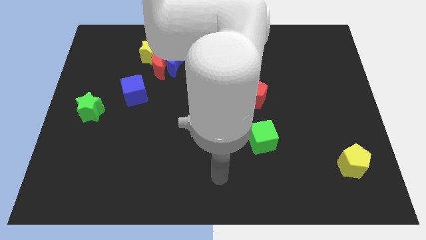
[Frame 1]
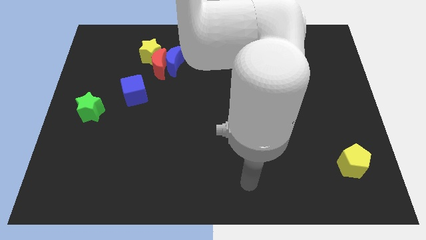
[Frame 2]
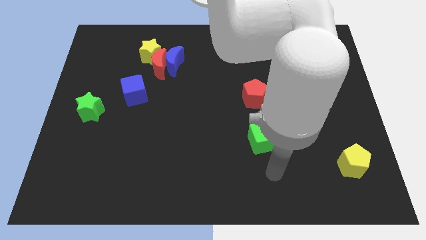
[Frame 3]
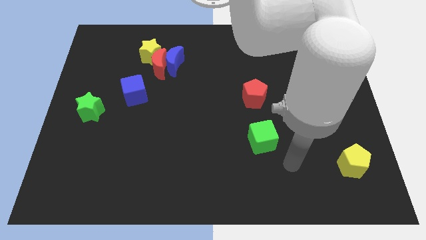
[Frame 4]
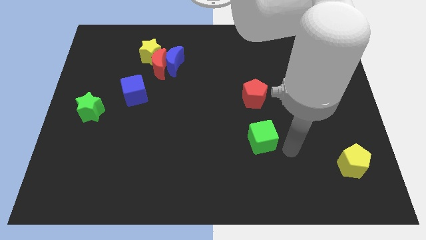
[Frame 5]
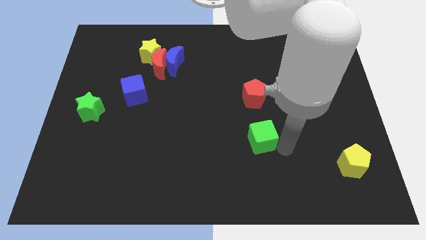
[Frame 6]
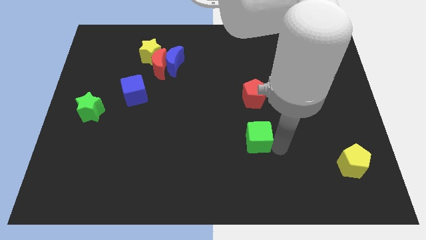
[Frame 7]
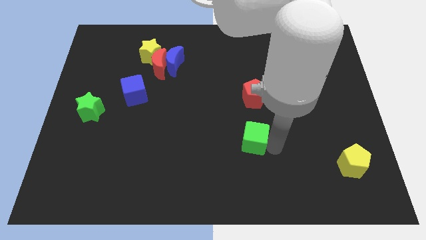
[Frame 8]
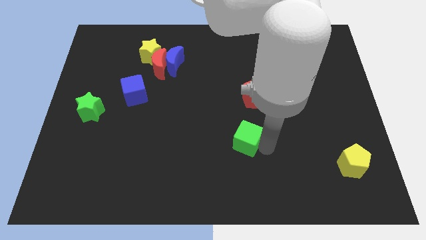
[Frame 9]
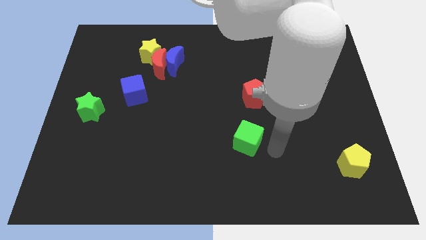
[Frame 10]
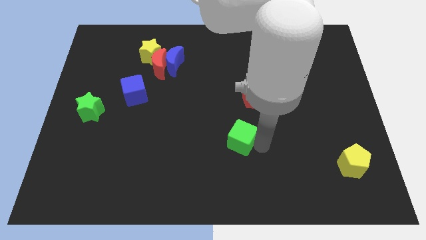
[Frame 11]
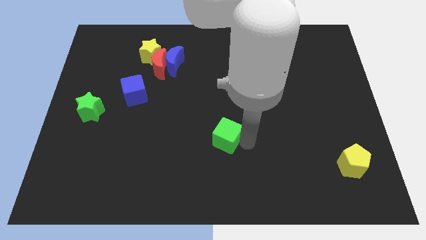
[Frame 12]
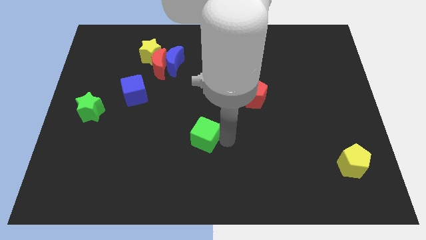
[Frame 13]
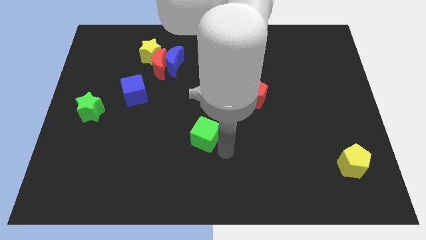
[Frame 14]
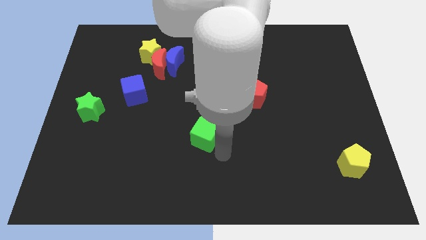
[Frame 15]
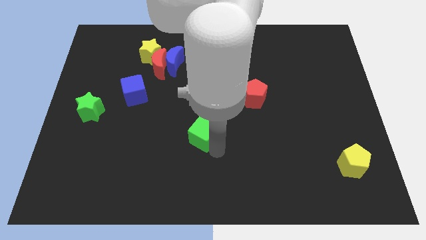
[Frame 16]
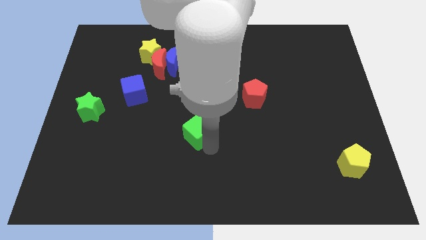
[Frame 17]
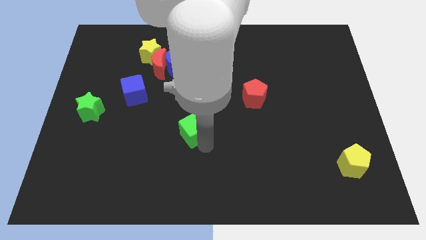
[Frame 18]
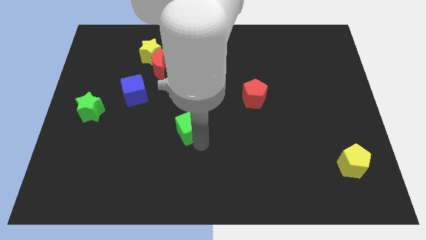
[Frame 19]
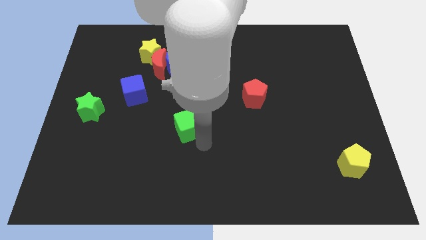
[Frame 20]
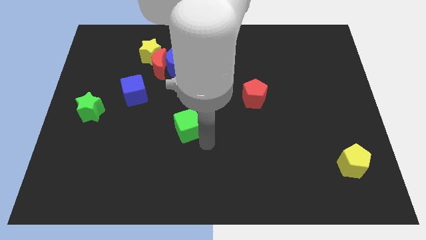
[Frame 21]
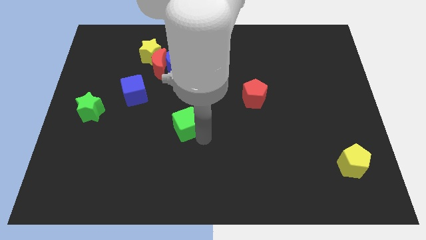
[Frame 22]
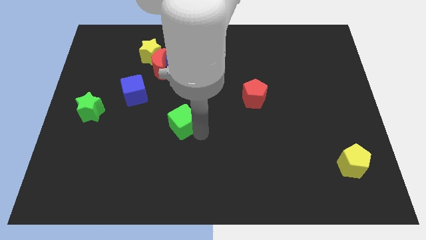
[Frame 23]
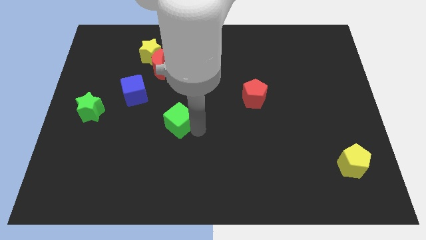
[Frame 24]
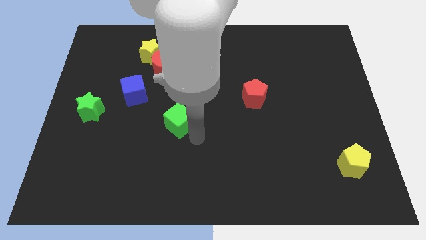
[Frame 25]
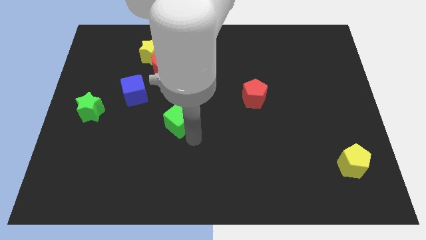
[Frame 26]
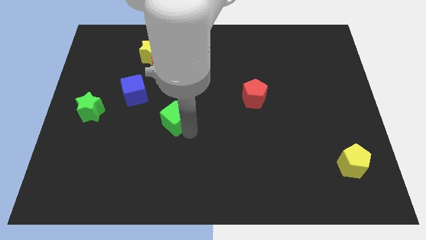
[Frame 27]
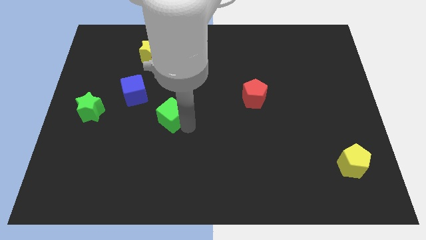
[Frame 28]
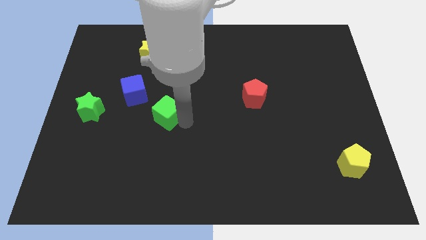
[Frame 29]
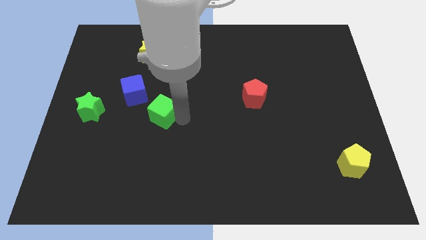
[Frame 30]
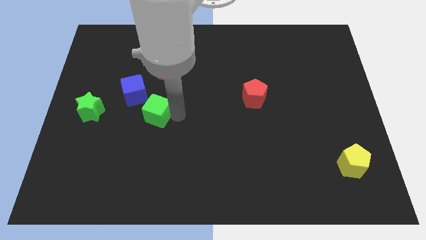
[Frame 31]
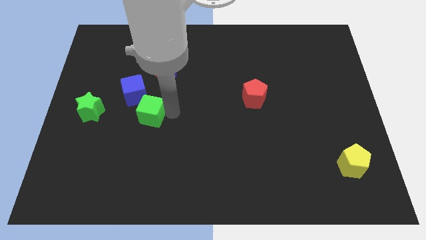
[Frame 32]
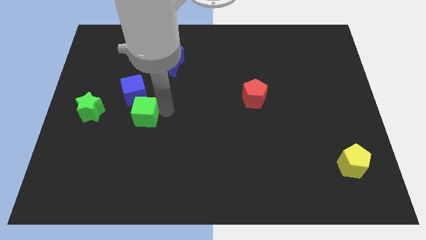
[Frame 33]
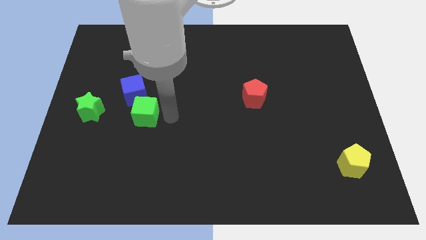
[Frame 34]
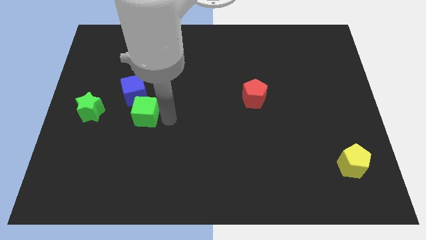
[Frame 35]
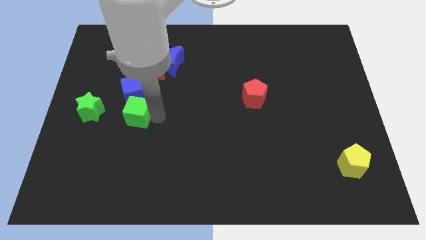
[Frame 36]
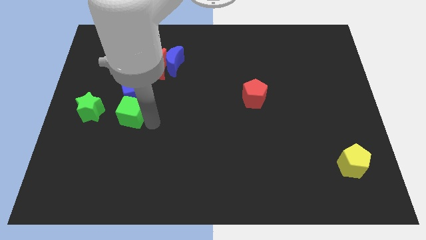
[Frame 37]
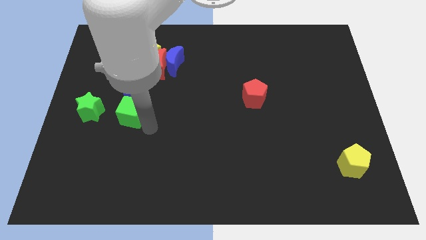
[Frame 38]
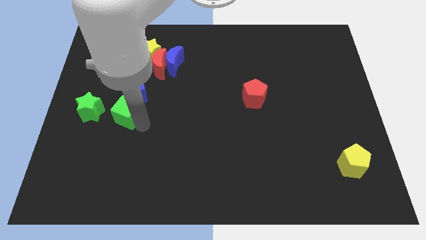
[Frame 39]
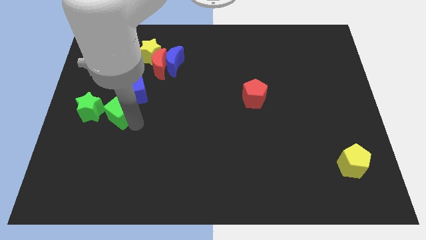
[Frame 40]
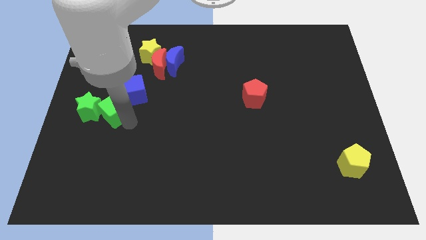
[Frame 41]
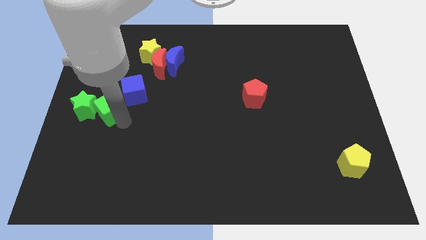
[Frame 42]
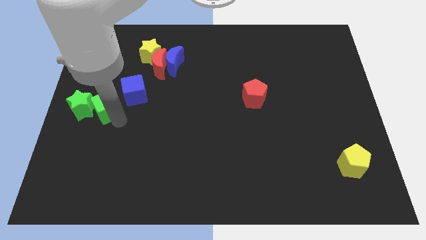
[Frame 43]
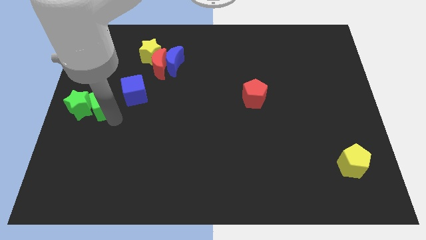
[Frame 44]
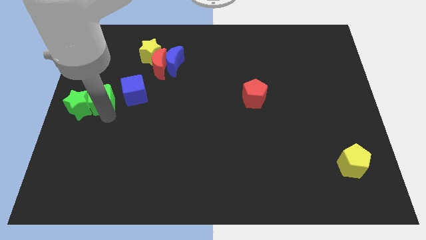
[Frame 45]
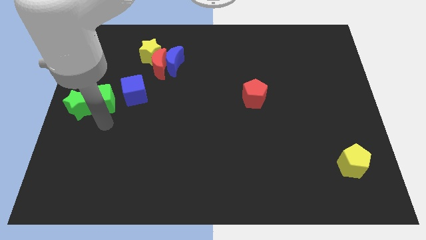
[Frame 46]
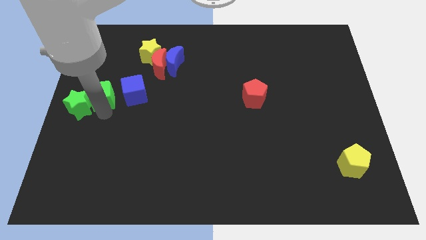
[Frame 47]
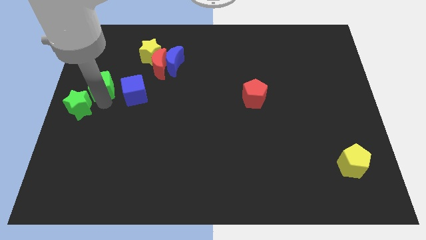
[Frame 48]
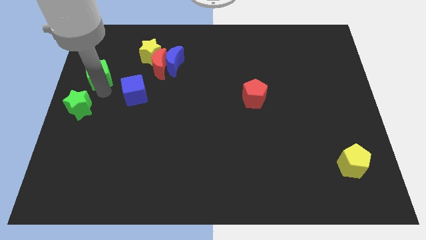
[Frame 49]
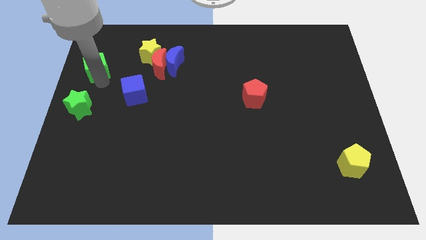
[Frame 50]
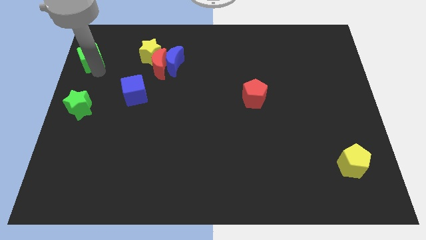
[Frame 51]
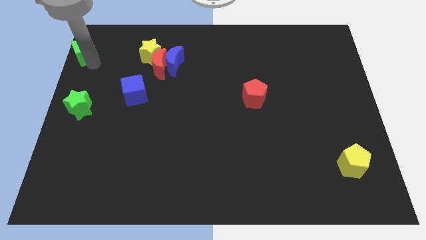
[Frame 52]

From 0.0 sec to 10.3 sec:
push the green cube to the top left

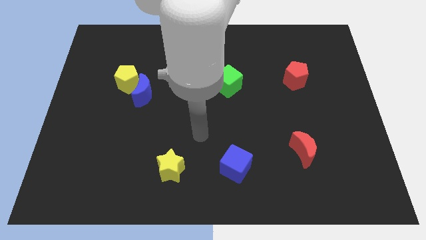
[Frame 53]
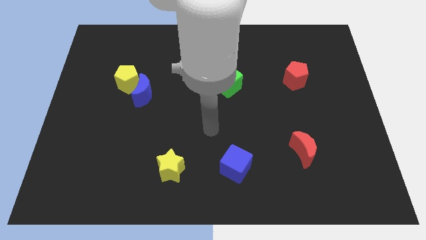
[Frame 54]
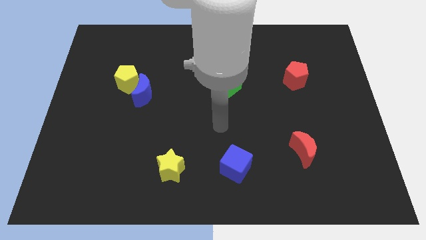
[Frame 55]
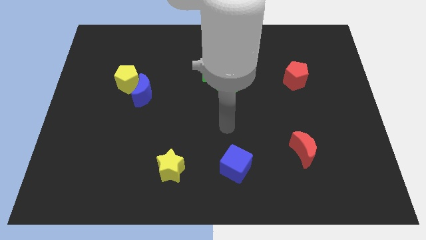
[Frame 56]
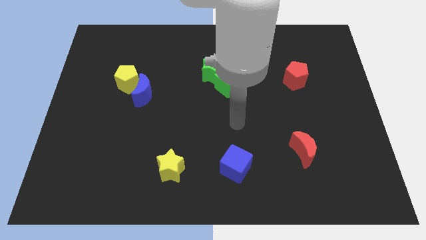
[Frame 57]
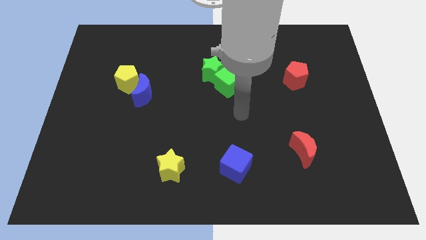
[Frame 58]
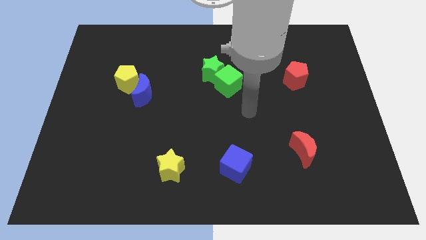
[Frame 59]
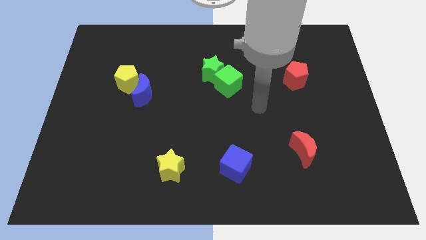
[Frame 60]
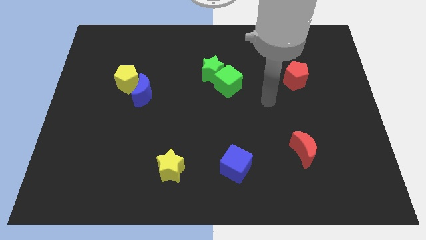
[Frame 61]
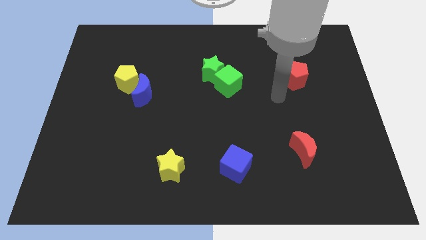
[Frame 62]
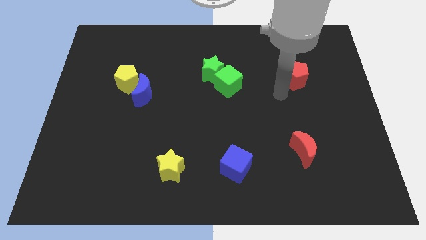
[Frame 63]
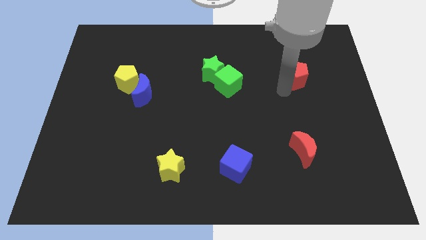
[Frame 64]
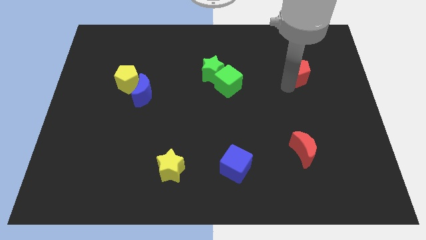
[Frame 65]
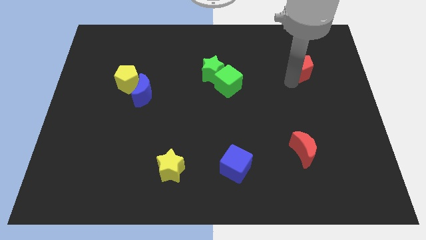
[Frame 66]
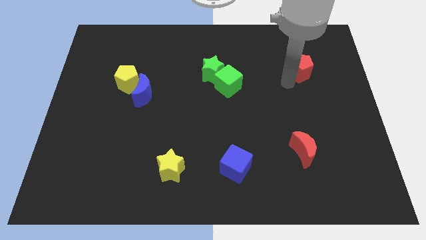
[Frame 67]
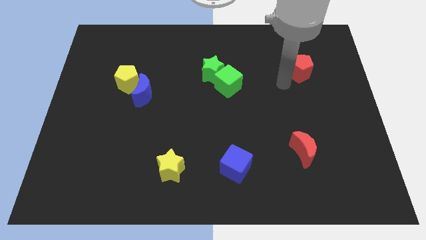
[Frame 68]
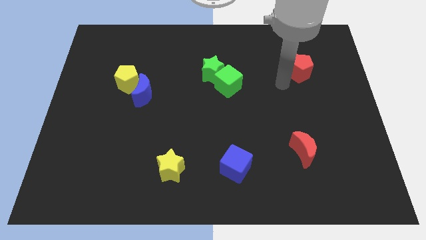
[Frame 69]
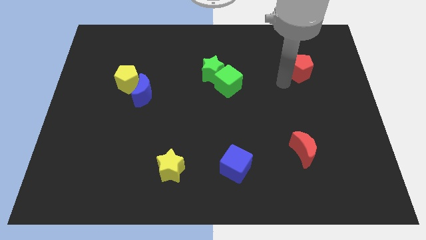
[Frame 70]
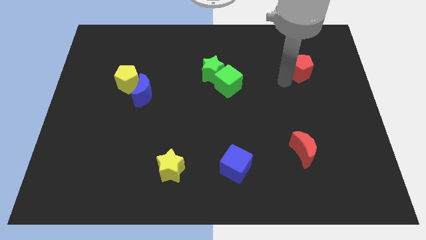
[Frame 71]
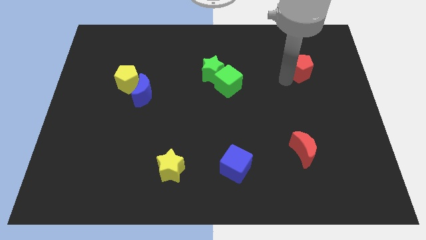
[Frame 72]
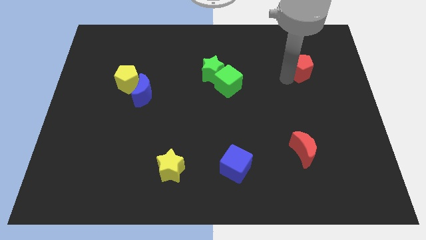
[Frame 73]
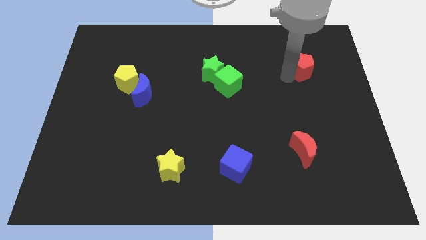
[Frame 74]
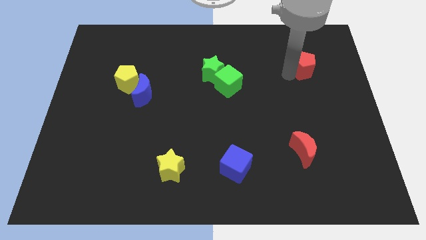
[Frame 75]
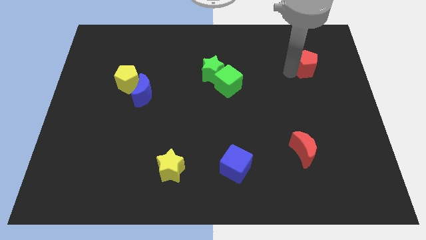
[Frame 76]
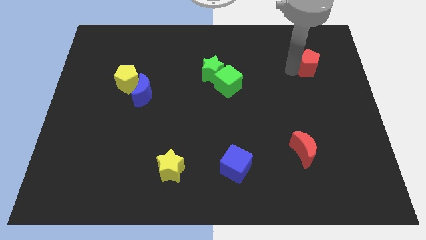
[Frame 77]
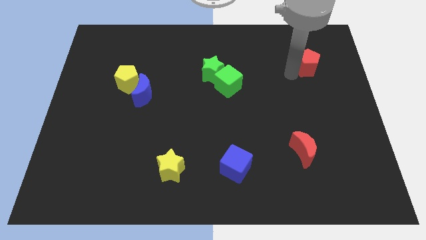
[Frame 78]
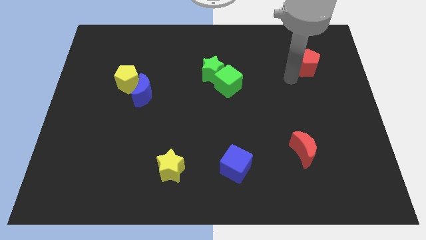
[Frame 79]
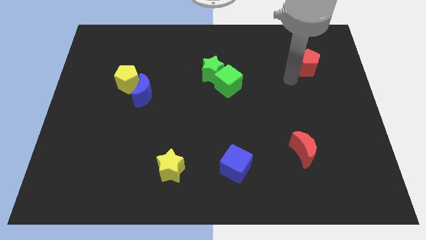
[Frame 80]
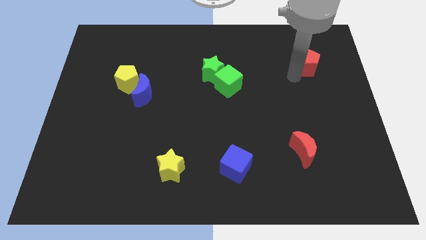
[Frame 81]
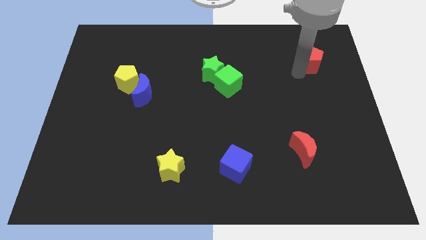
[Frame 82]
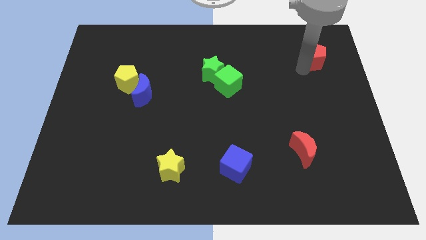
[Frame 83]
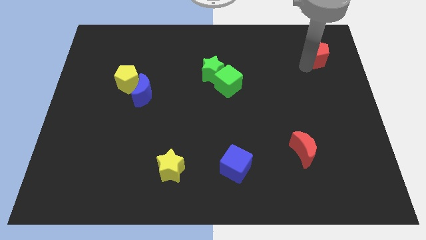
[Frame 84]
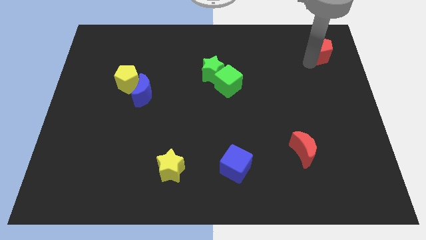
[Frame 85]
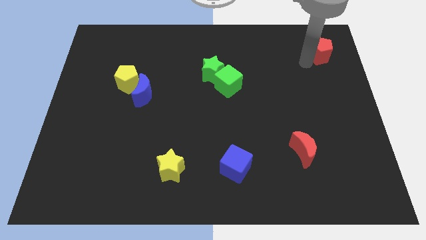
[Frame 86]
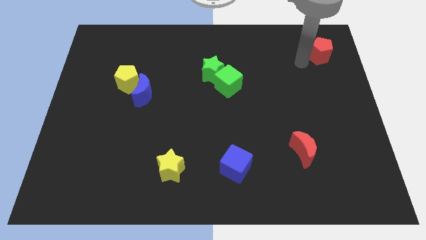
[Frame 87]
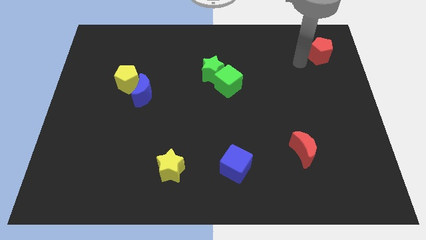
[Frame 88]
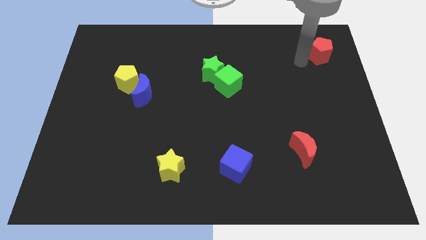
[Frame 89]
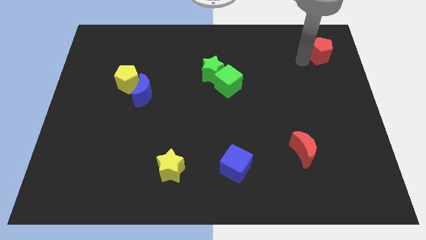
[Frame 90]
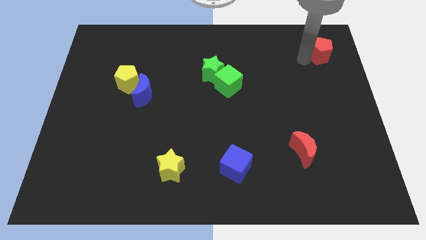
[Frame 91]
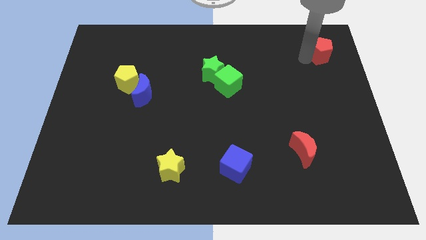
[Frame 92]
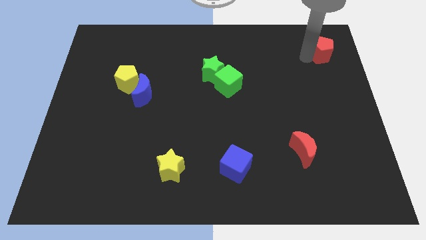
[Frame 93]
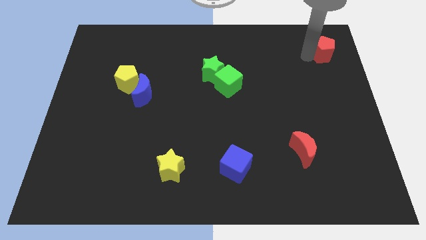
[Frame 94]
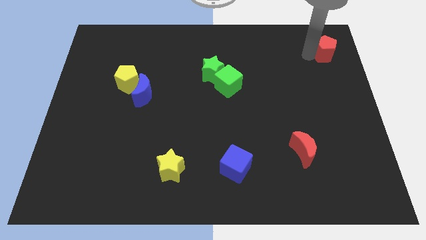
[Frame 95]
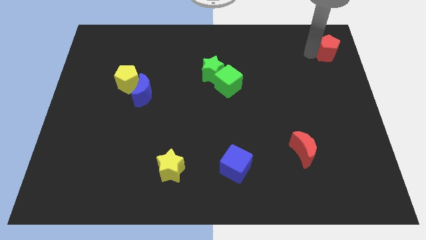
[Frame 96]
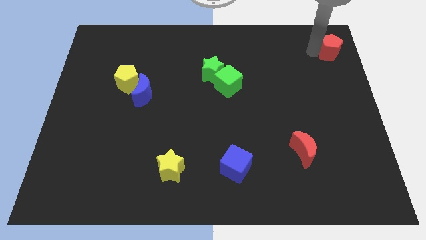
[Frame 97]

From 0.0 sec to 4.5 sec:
push the red pentagon to the top right
